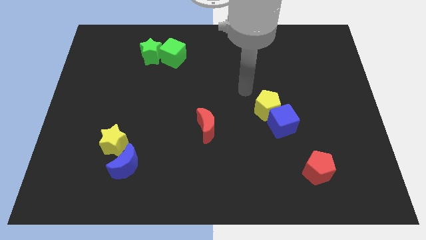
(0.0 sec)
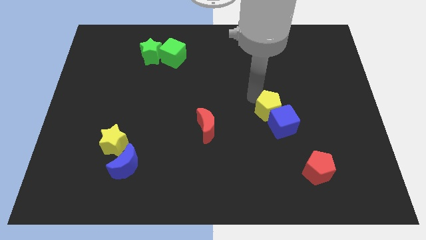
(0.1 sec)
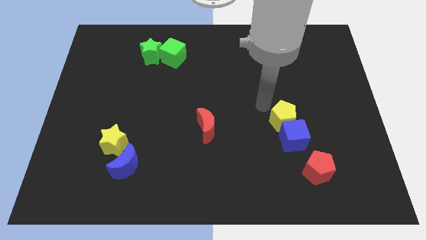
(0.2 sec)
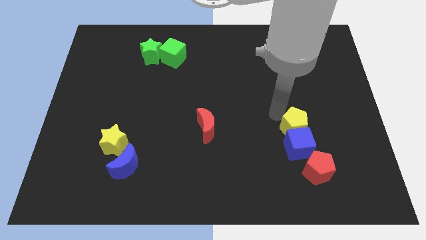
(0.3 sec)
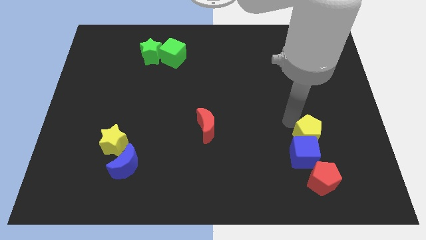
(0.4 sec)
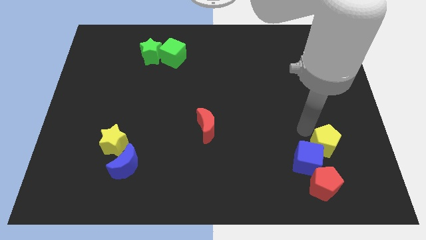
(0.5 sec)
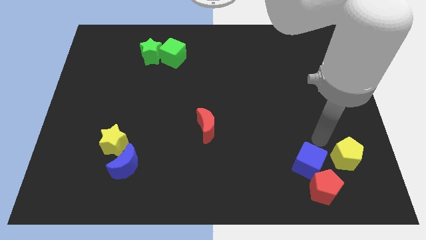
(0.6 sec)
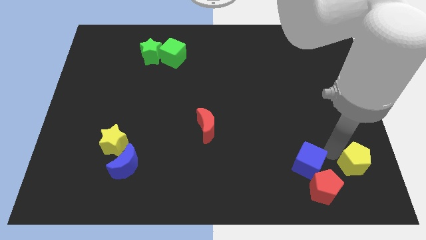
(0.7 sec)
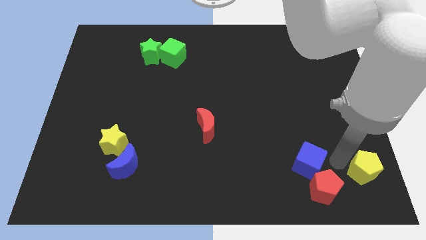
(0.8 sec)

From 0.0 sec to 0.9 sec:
move the blue cube away from the yellow pentagon

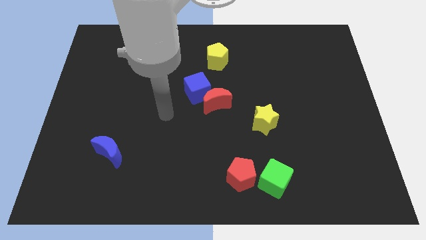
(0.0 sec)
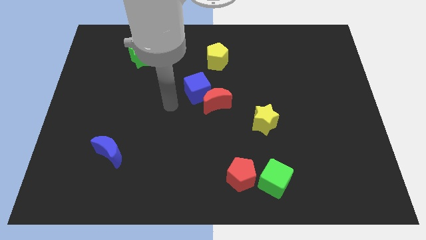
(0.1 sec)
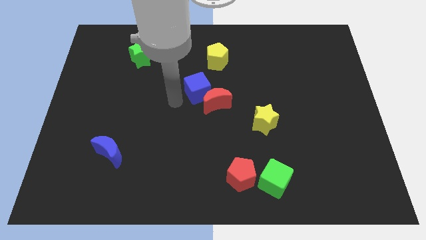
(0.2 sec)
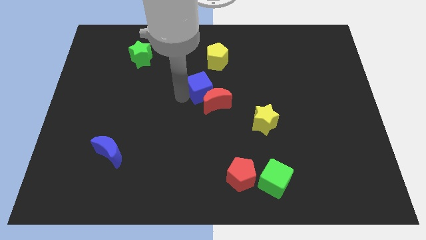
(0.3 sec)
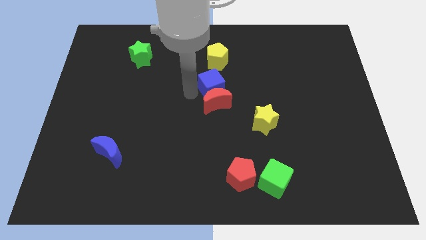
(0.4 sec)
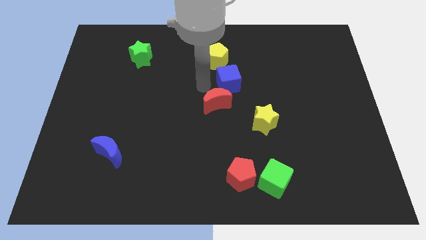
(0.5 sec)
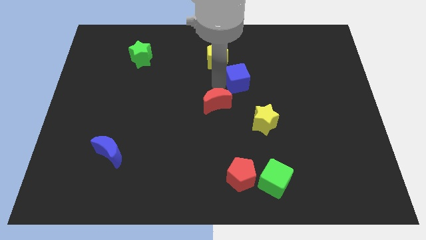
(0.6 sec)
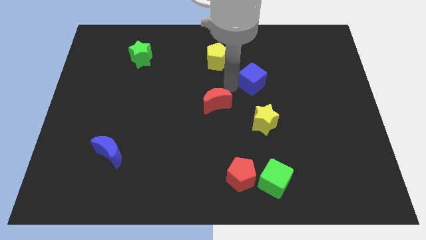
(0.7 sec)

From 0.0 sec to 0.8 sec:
separate the red moon from the blue cube

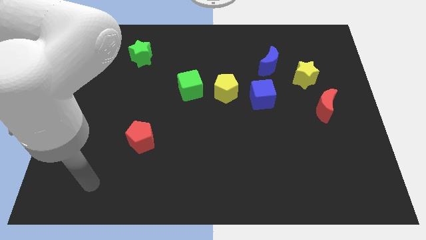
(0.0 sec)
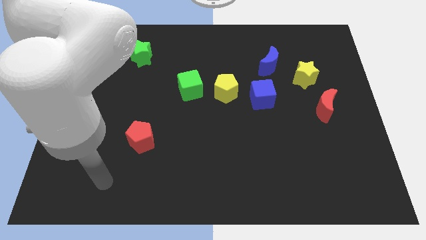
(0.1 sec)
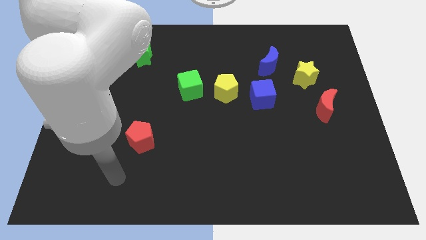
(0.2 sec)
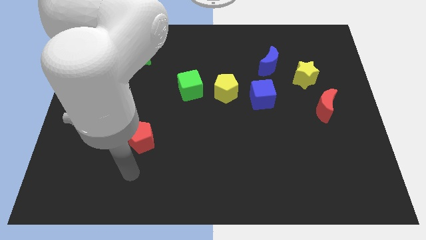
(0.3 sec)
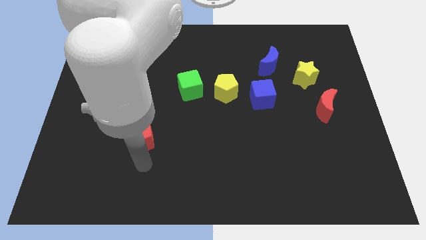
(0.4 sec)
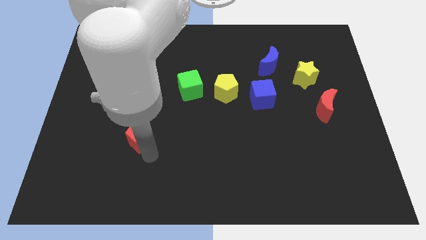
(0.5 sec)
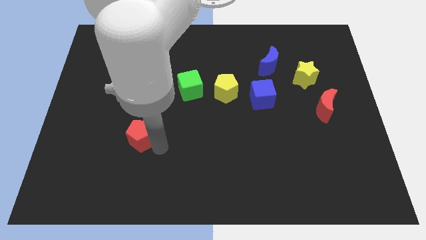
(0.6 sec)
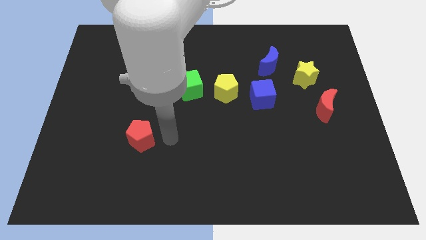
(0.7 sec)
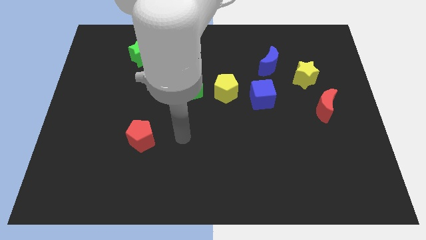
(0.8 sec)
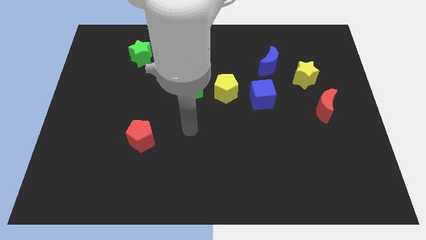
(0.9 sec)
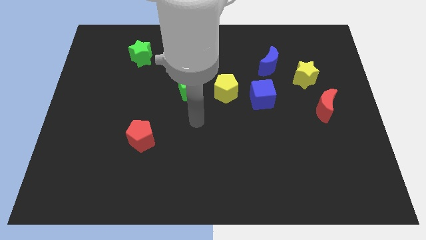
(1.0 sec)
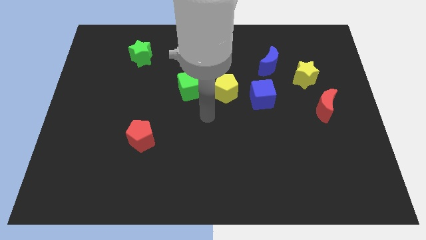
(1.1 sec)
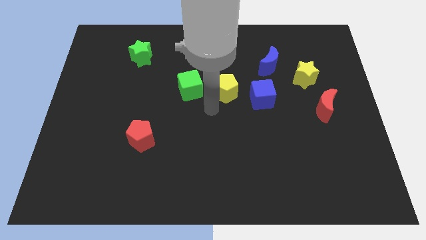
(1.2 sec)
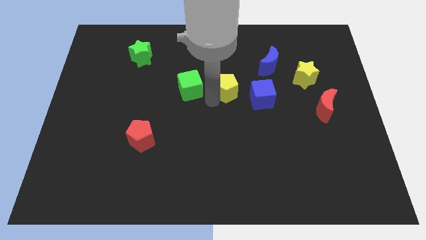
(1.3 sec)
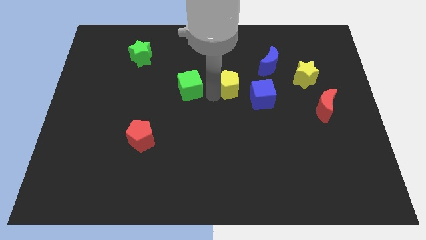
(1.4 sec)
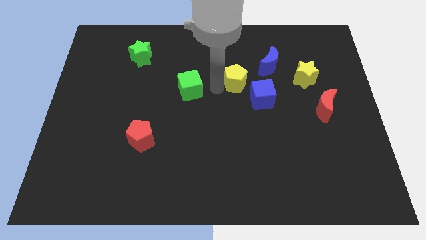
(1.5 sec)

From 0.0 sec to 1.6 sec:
pull the green cube apart from the yellow pentagon

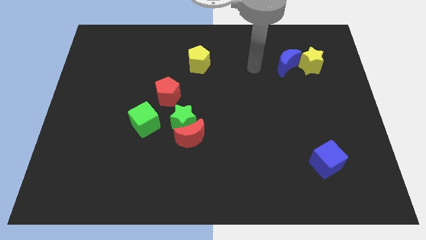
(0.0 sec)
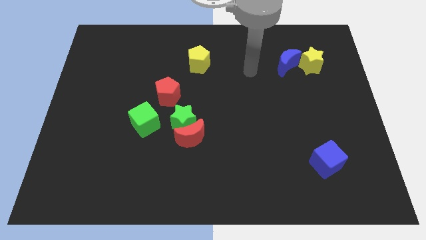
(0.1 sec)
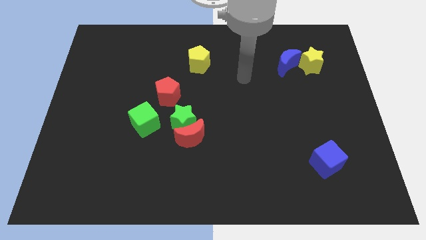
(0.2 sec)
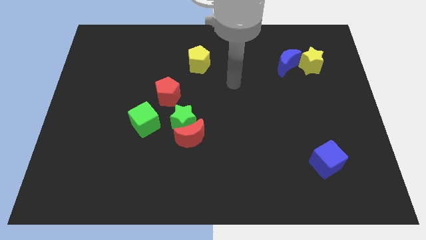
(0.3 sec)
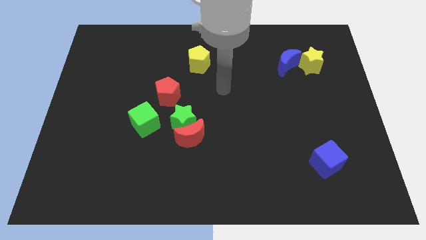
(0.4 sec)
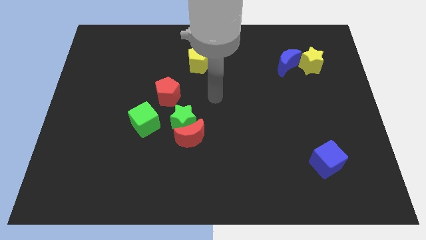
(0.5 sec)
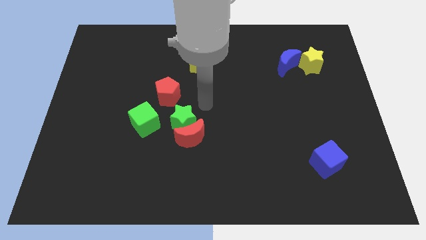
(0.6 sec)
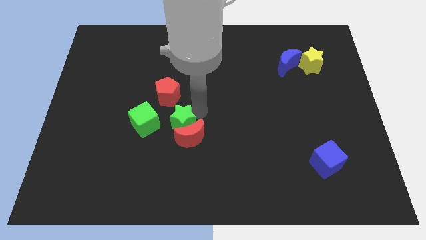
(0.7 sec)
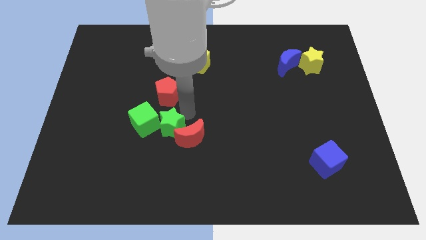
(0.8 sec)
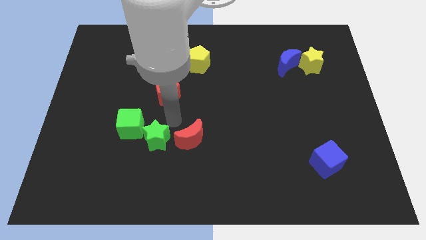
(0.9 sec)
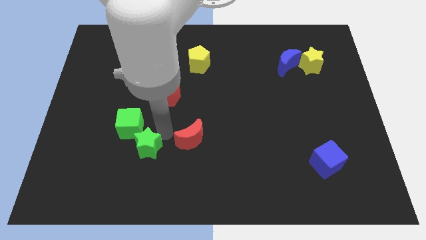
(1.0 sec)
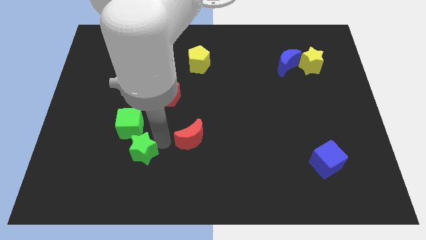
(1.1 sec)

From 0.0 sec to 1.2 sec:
move the red moon away from the green star

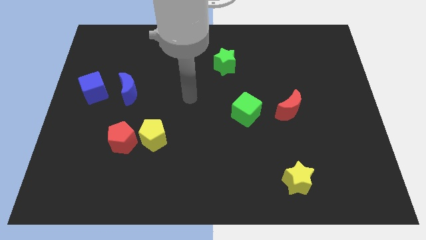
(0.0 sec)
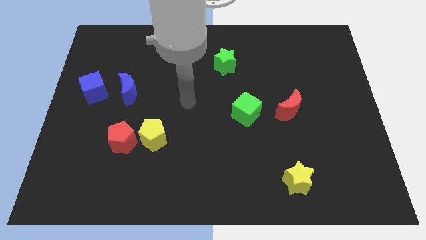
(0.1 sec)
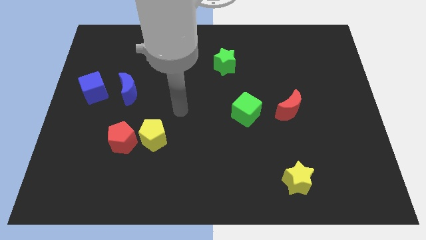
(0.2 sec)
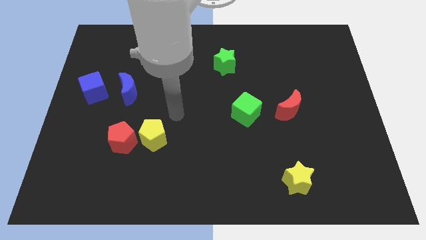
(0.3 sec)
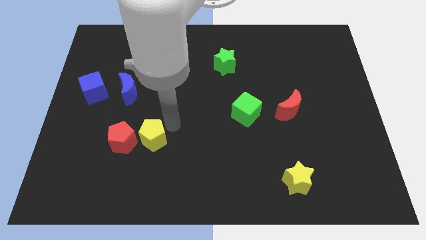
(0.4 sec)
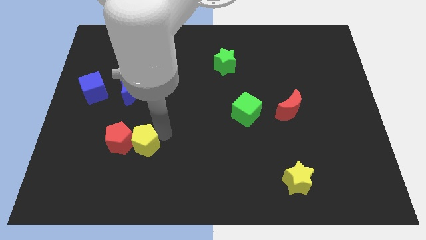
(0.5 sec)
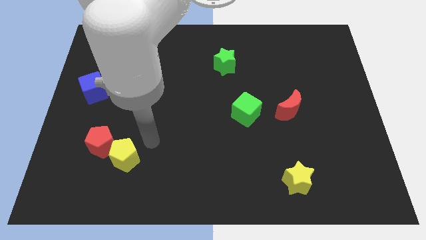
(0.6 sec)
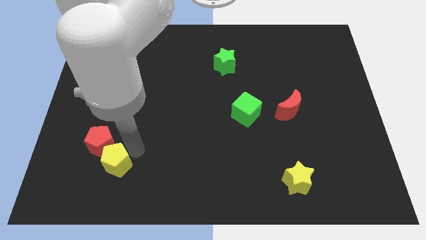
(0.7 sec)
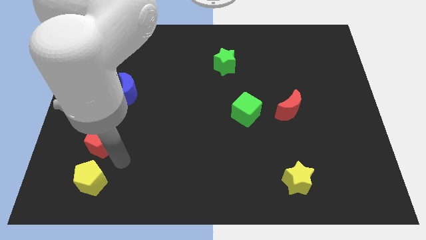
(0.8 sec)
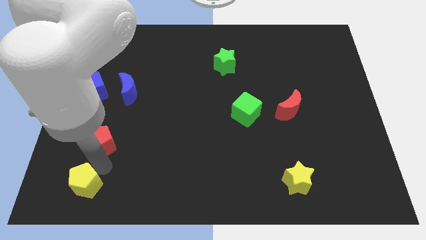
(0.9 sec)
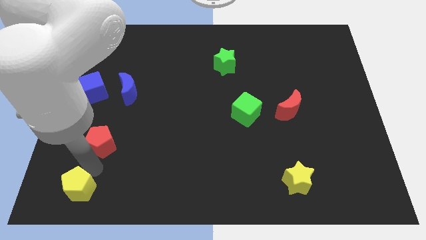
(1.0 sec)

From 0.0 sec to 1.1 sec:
separate the red pentagon from the yellow pentagon

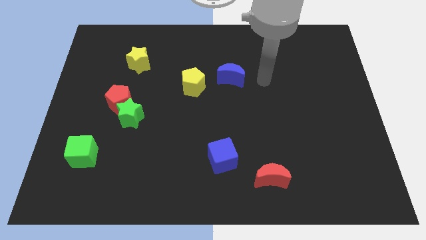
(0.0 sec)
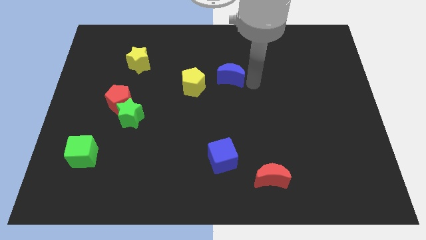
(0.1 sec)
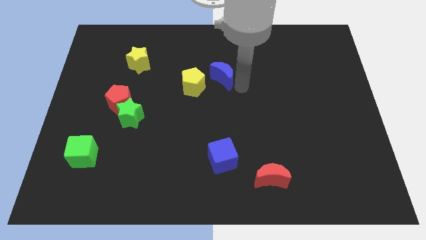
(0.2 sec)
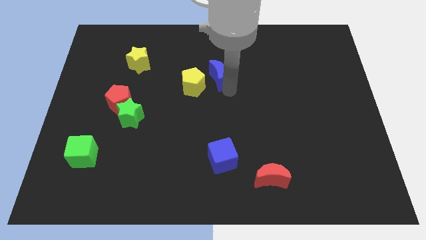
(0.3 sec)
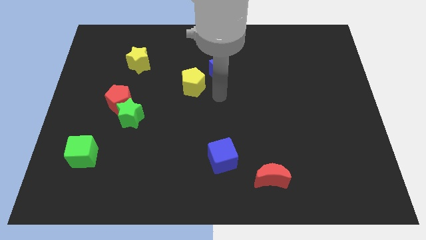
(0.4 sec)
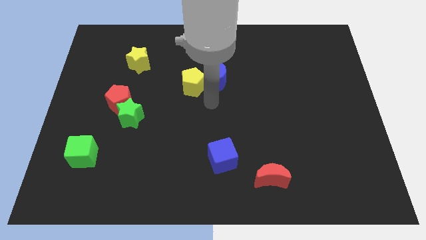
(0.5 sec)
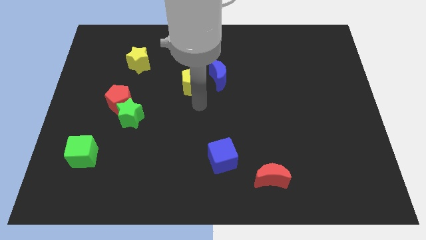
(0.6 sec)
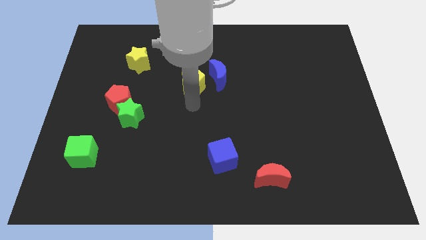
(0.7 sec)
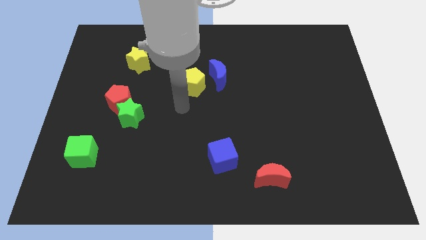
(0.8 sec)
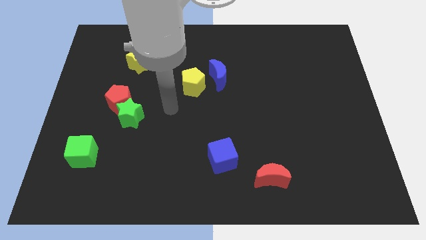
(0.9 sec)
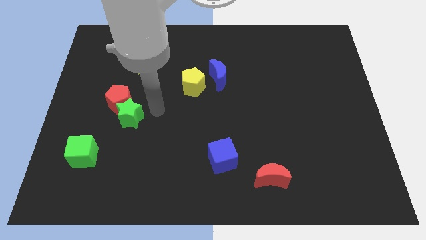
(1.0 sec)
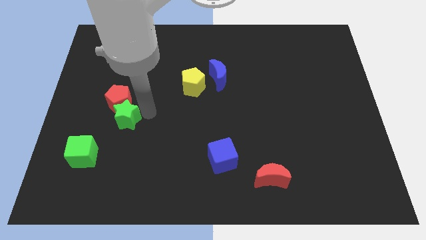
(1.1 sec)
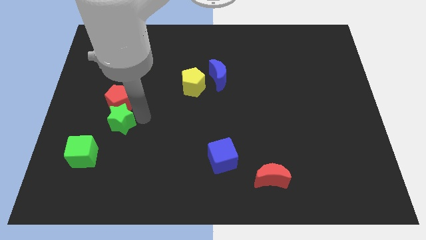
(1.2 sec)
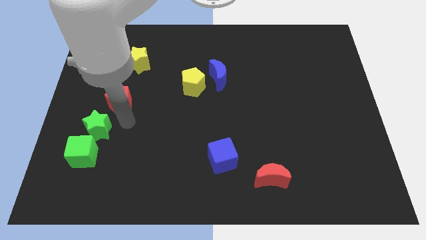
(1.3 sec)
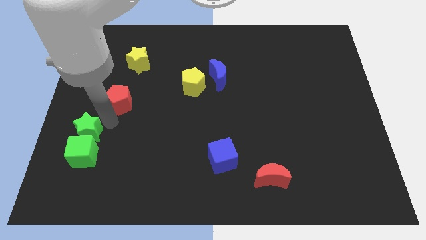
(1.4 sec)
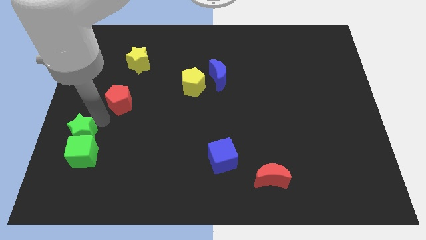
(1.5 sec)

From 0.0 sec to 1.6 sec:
pull the red pentagon apart from the green star

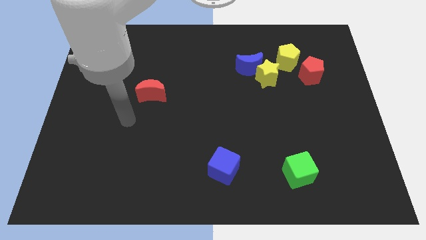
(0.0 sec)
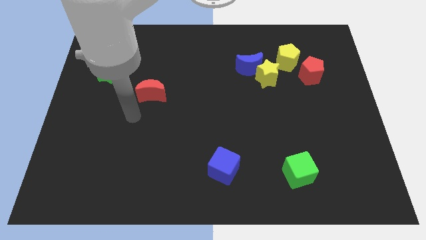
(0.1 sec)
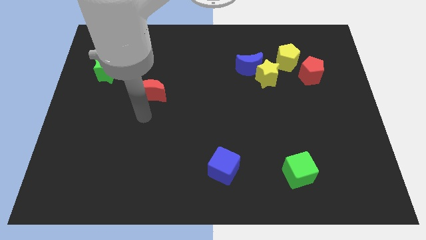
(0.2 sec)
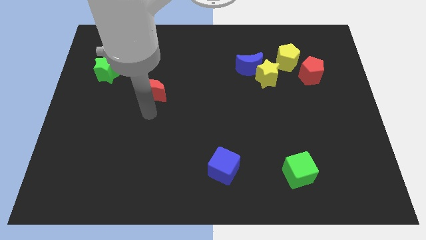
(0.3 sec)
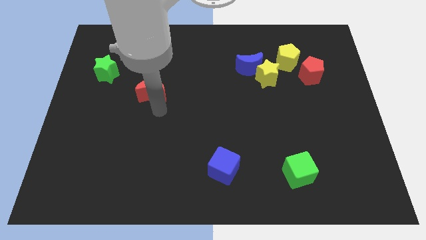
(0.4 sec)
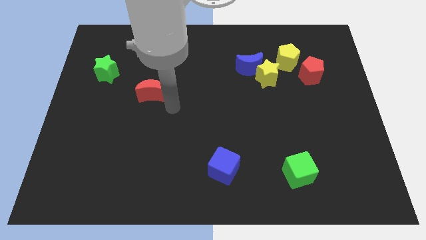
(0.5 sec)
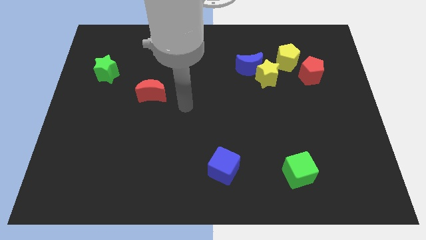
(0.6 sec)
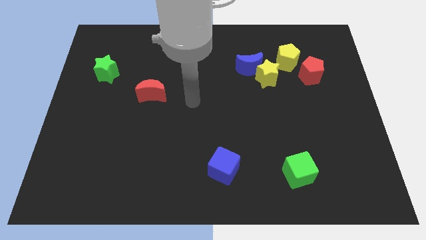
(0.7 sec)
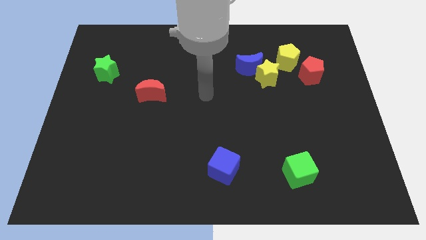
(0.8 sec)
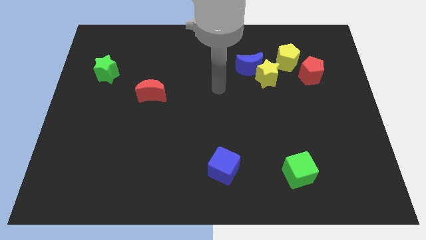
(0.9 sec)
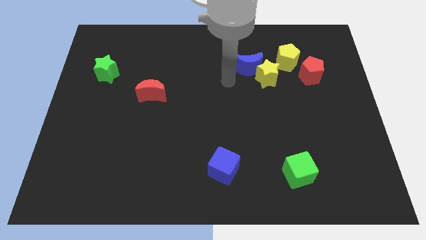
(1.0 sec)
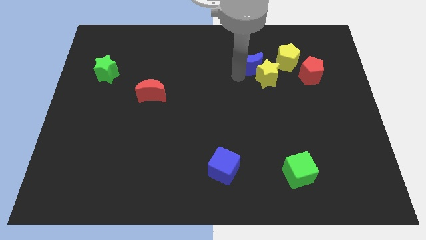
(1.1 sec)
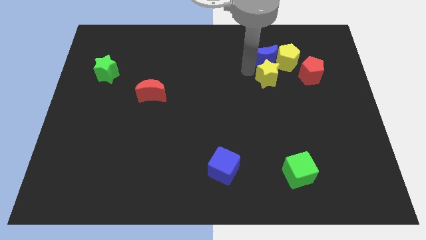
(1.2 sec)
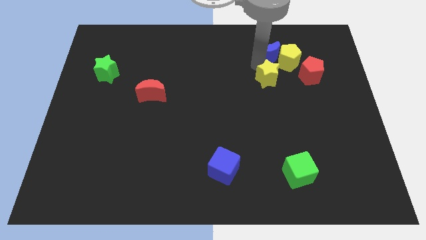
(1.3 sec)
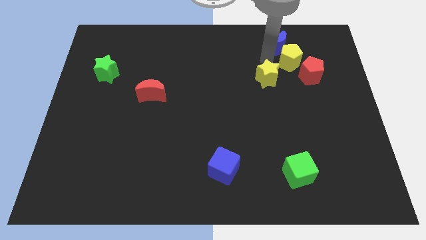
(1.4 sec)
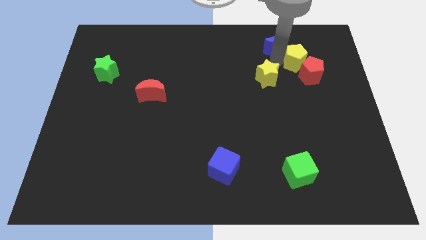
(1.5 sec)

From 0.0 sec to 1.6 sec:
move the yellow star away from the blue moon and yellow pentagon

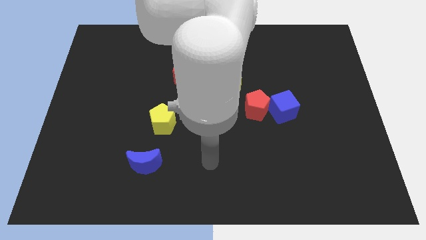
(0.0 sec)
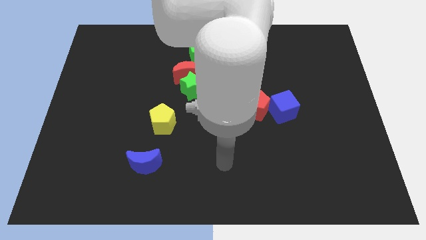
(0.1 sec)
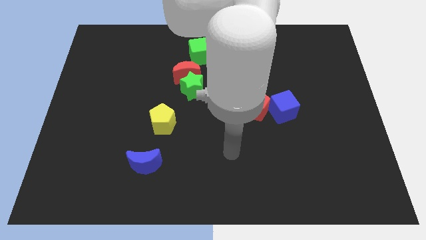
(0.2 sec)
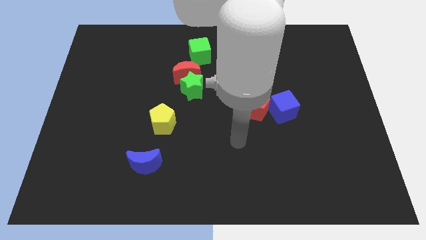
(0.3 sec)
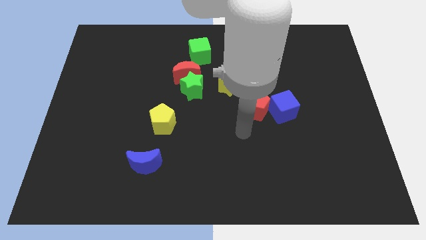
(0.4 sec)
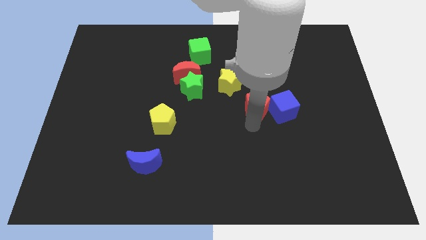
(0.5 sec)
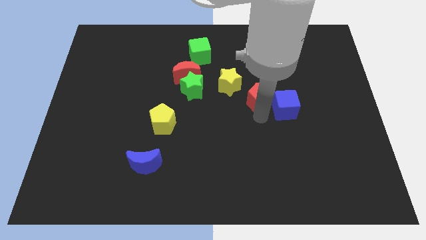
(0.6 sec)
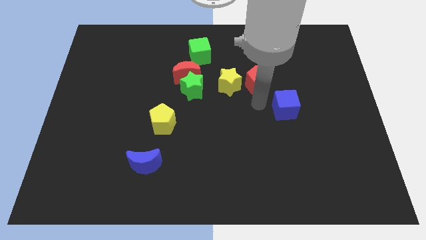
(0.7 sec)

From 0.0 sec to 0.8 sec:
move the blue cube away from the red pentagon
